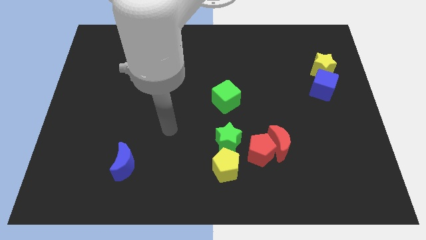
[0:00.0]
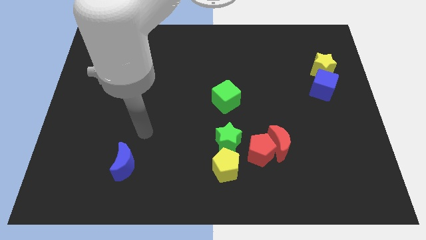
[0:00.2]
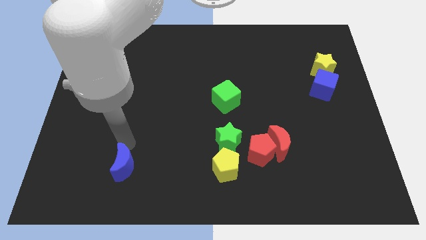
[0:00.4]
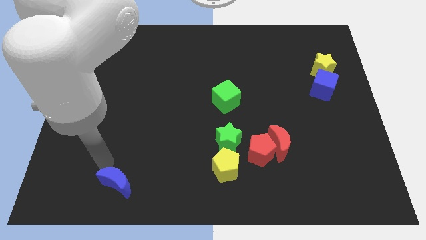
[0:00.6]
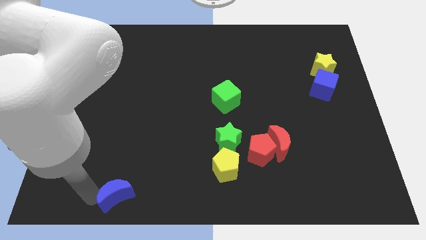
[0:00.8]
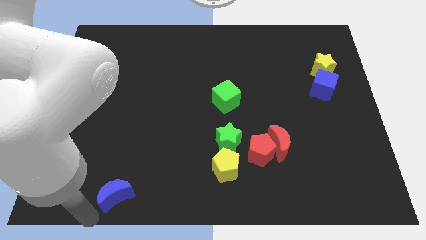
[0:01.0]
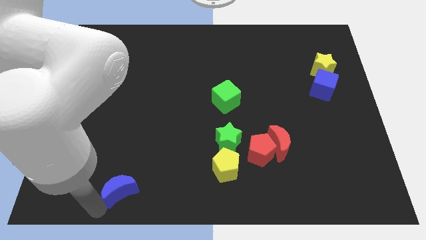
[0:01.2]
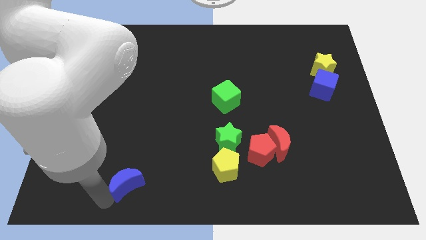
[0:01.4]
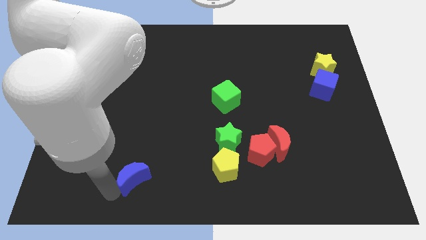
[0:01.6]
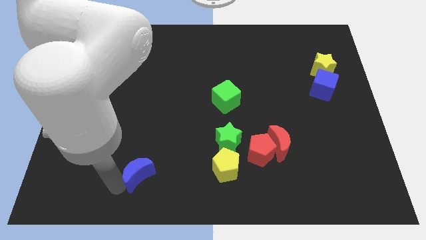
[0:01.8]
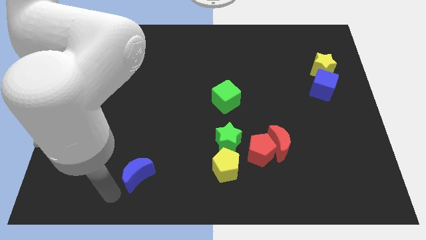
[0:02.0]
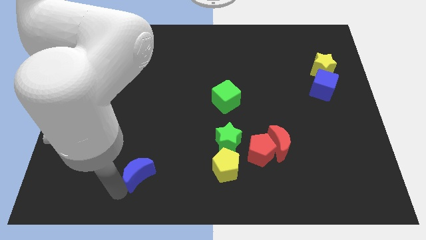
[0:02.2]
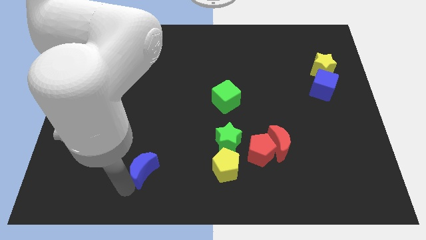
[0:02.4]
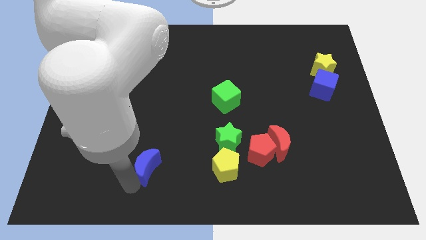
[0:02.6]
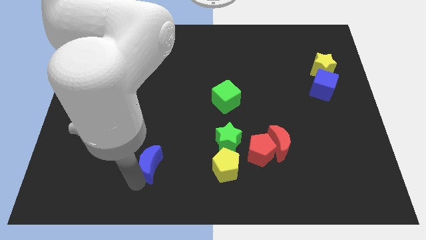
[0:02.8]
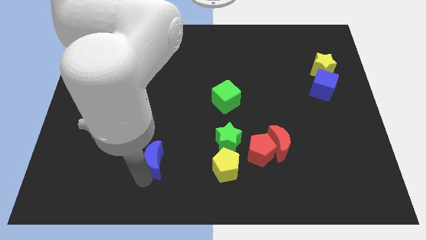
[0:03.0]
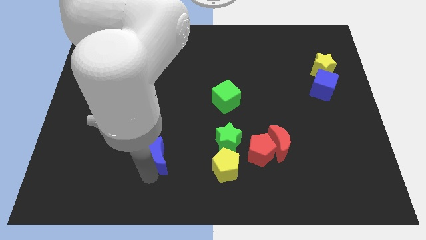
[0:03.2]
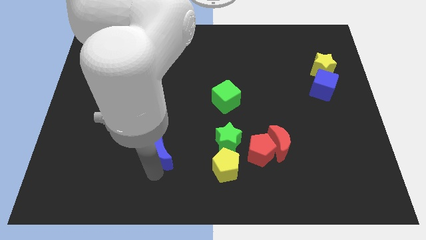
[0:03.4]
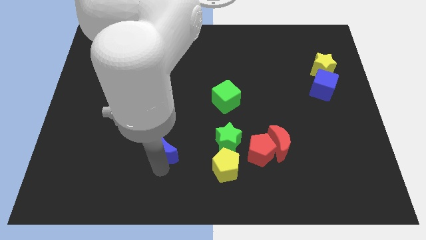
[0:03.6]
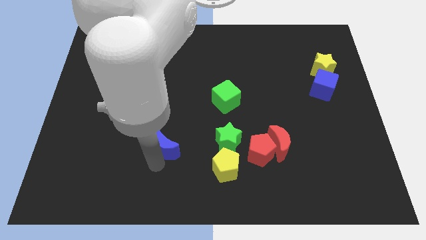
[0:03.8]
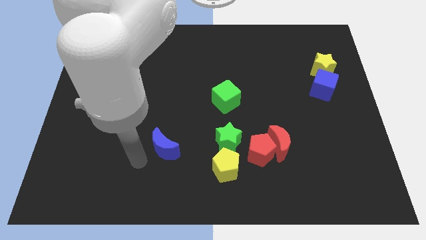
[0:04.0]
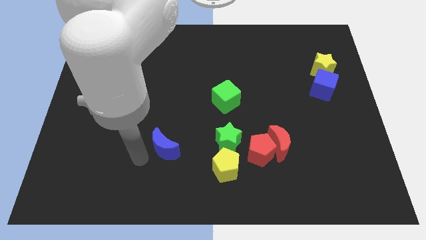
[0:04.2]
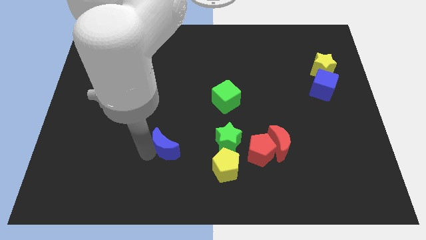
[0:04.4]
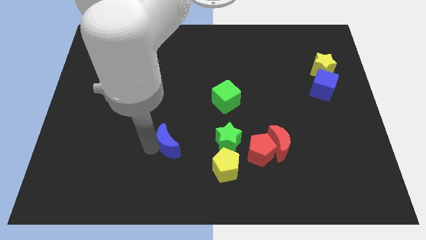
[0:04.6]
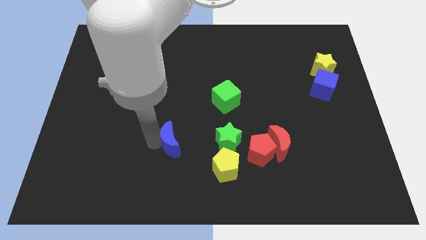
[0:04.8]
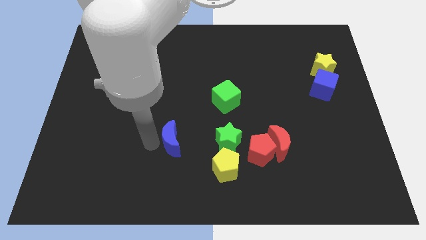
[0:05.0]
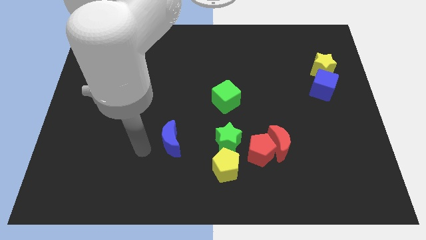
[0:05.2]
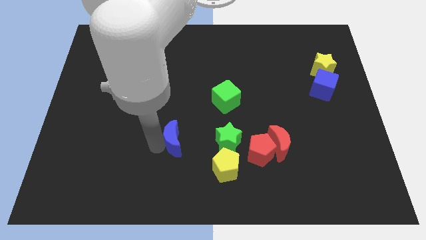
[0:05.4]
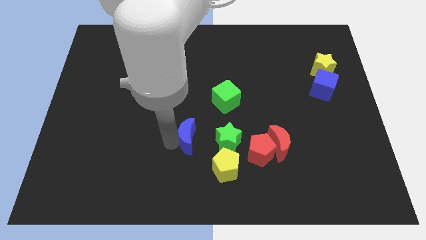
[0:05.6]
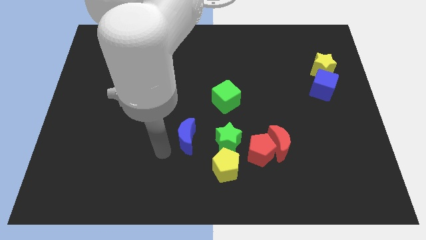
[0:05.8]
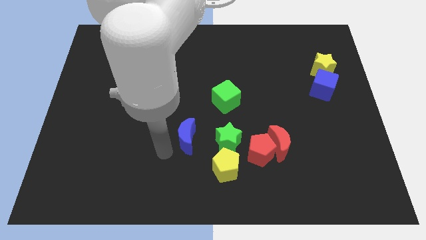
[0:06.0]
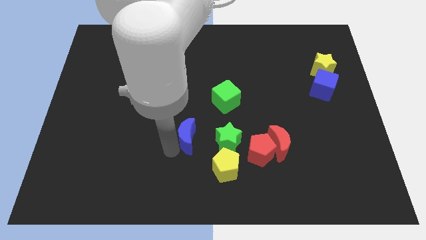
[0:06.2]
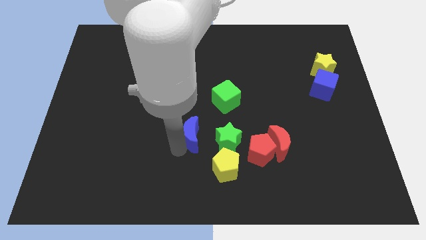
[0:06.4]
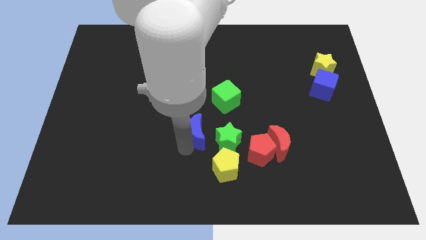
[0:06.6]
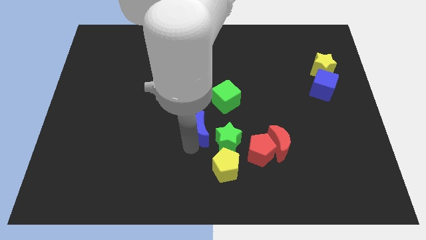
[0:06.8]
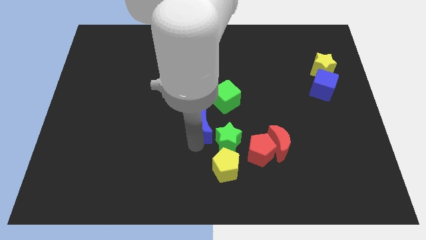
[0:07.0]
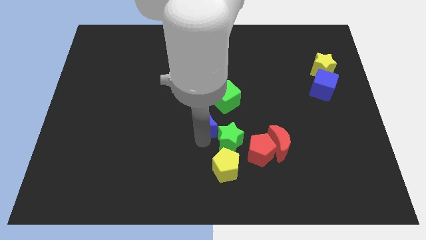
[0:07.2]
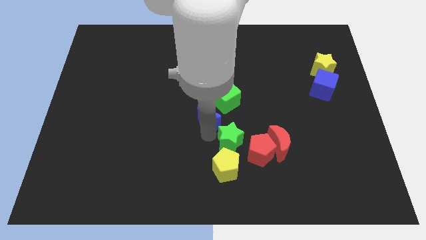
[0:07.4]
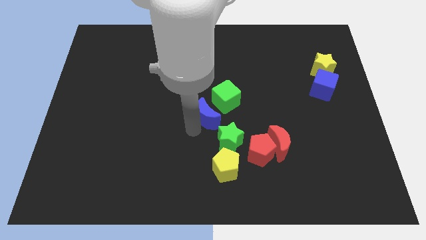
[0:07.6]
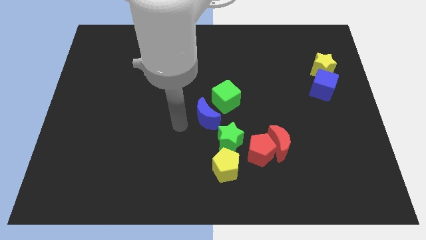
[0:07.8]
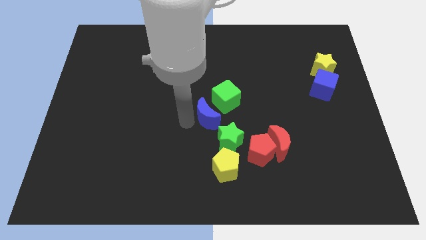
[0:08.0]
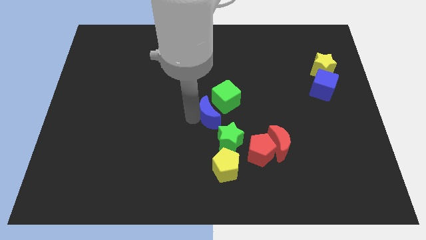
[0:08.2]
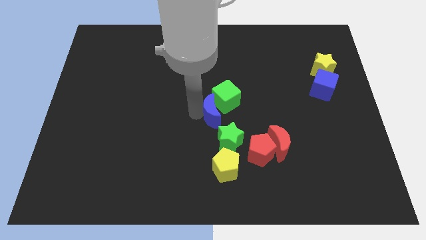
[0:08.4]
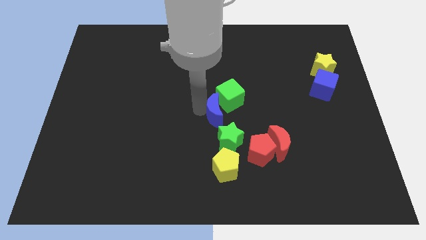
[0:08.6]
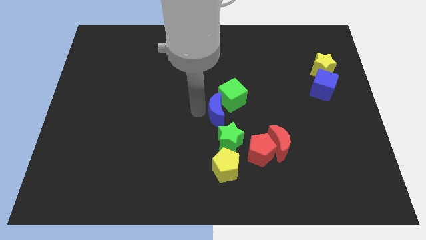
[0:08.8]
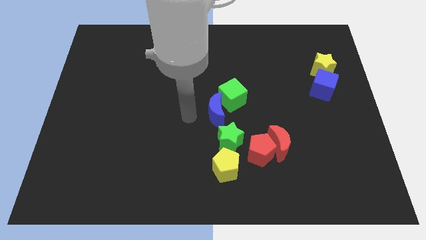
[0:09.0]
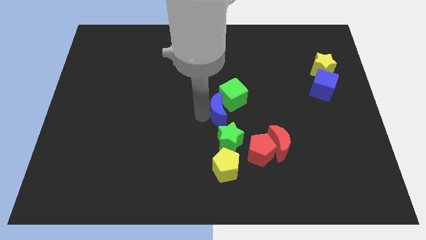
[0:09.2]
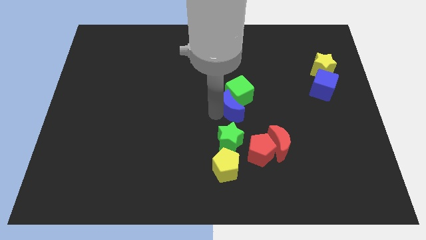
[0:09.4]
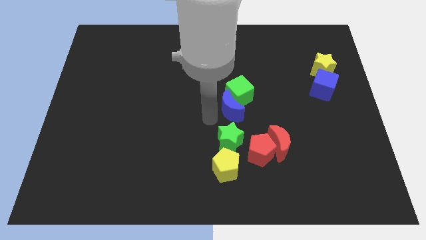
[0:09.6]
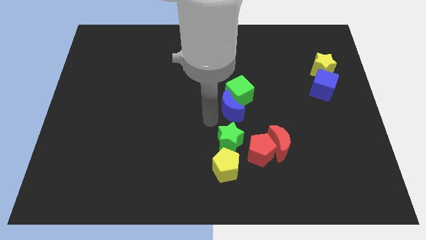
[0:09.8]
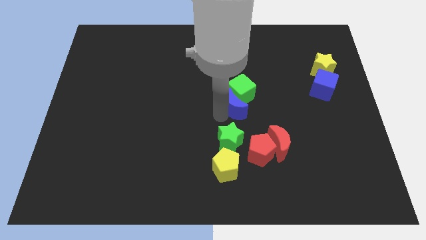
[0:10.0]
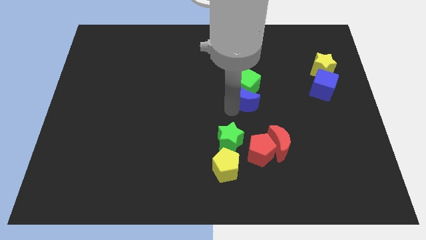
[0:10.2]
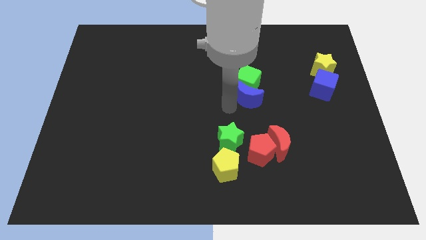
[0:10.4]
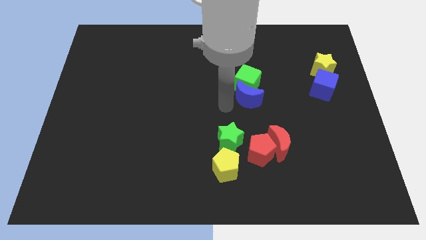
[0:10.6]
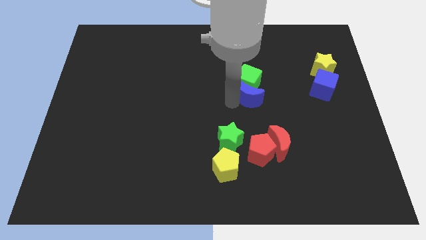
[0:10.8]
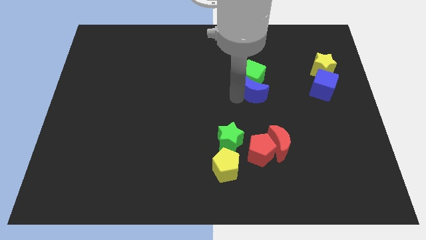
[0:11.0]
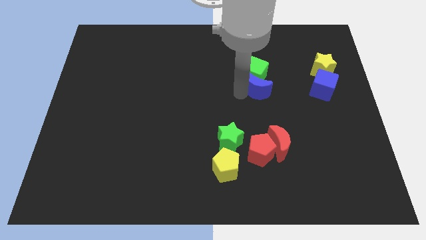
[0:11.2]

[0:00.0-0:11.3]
push the blue moon to the left side of the blue cube

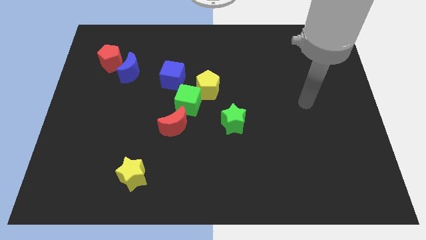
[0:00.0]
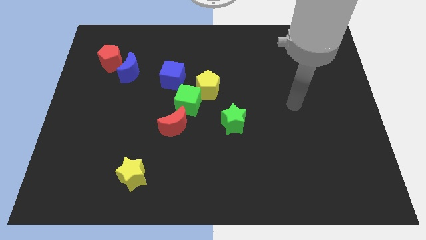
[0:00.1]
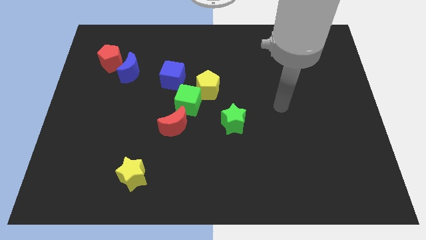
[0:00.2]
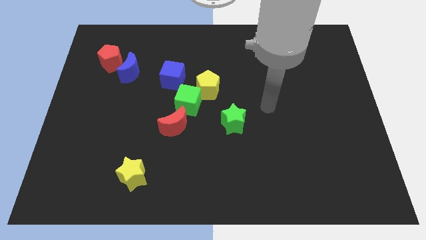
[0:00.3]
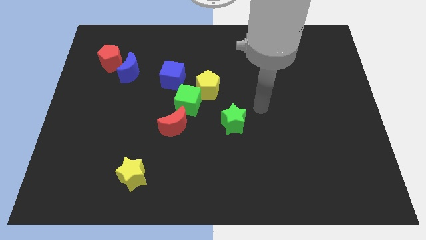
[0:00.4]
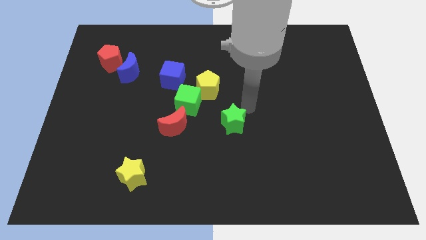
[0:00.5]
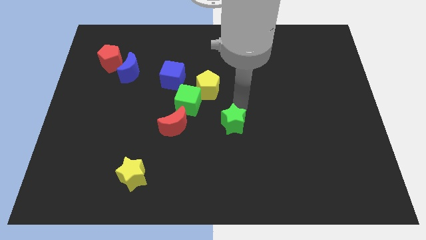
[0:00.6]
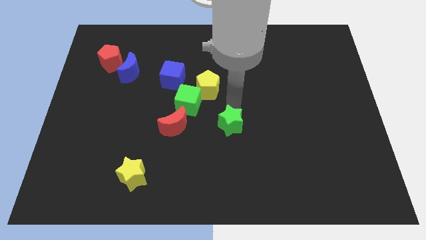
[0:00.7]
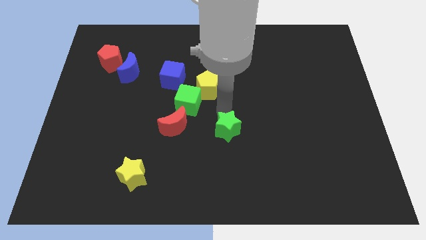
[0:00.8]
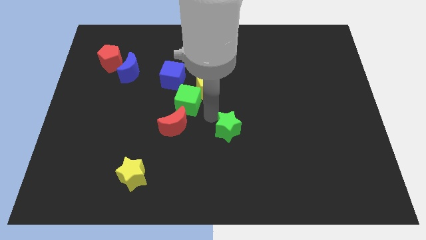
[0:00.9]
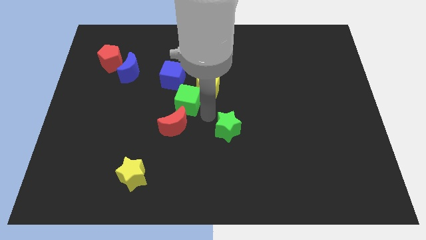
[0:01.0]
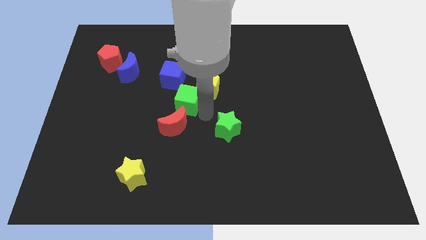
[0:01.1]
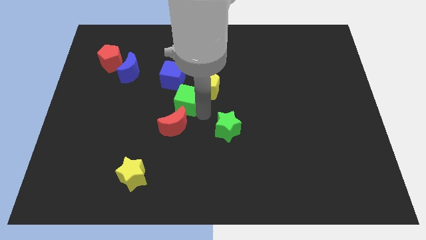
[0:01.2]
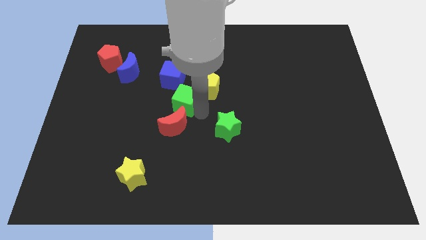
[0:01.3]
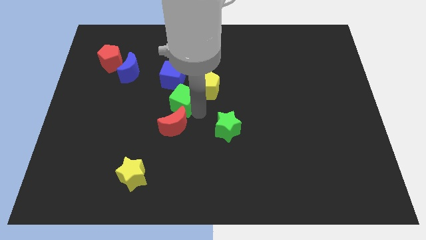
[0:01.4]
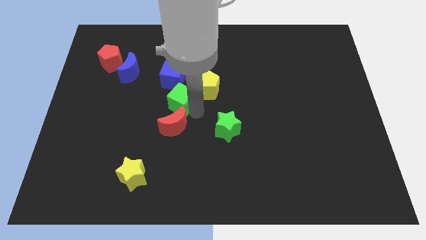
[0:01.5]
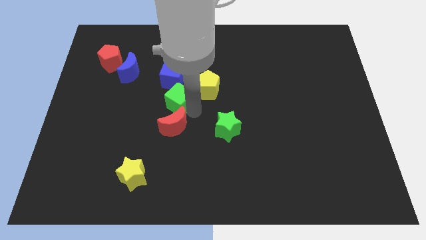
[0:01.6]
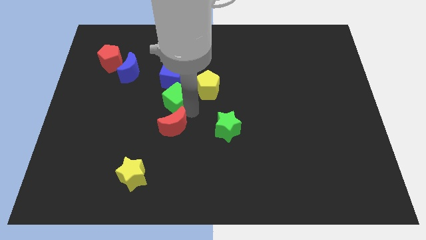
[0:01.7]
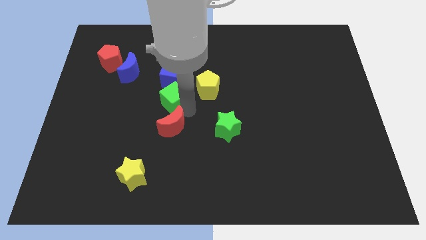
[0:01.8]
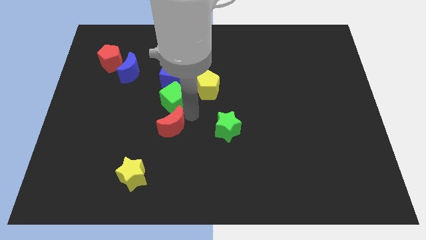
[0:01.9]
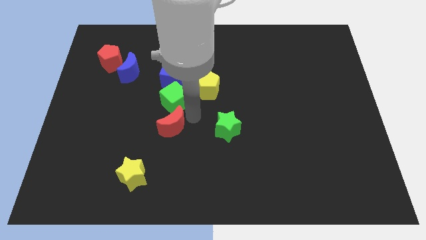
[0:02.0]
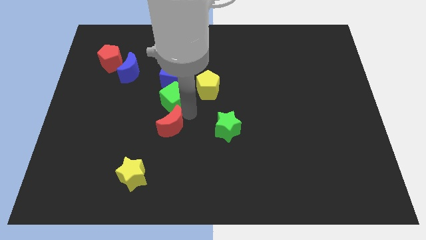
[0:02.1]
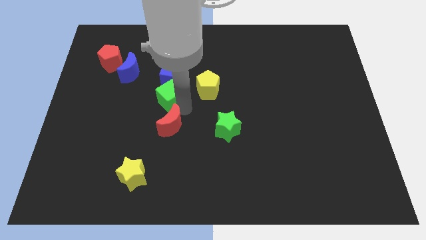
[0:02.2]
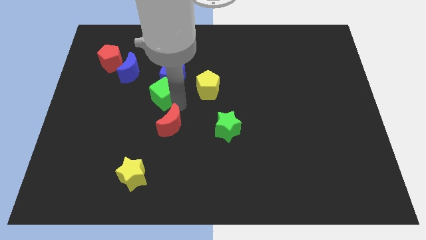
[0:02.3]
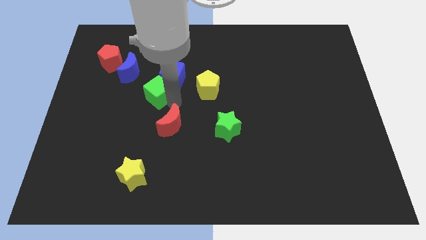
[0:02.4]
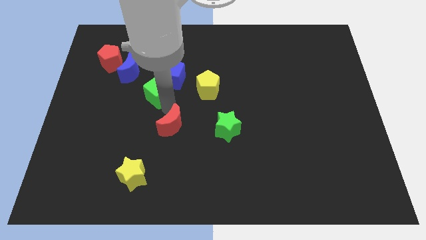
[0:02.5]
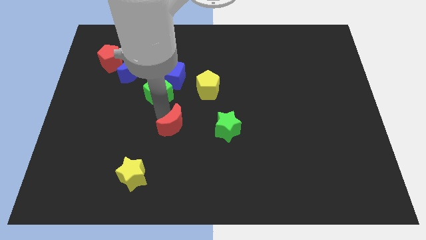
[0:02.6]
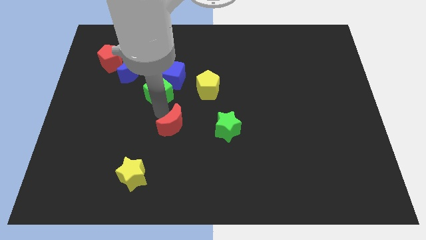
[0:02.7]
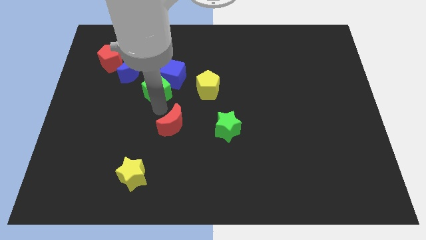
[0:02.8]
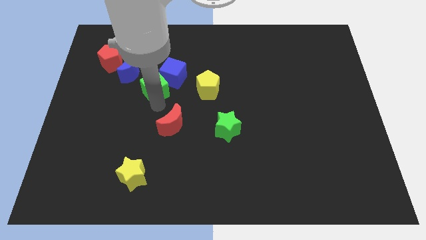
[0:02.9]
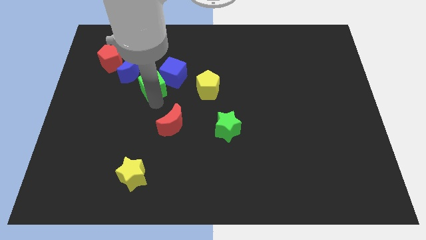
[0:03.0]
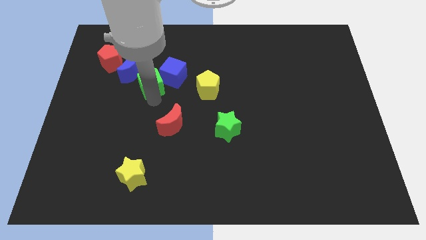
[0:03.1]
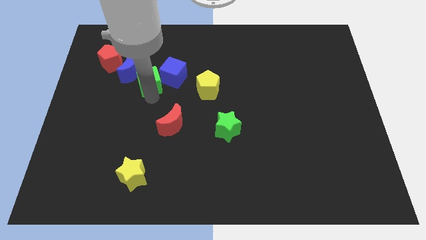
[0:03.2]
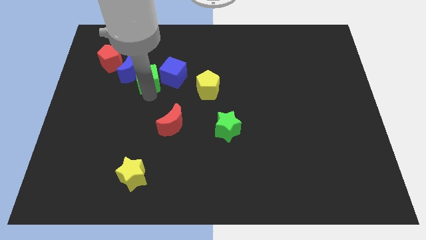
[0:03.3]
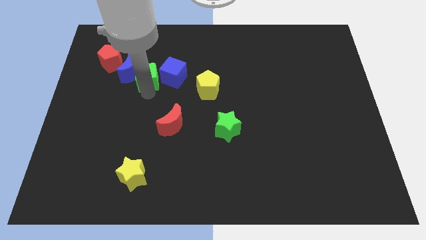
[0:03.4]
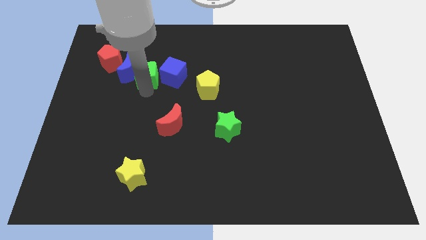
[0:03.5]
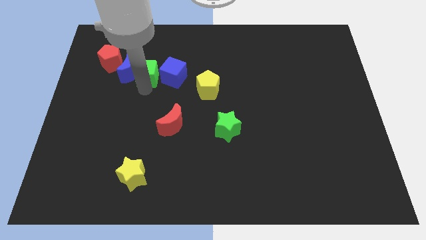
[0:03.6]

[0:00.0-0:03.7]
slide the green cube to the top left side of the blue cube
